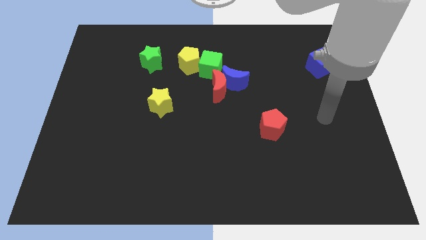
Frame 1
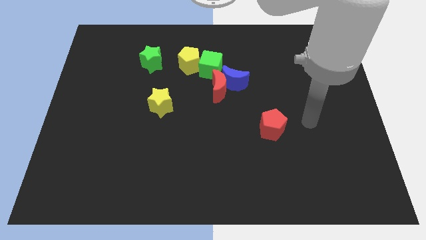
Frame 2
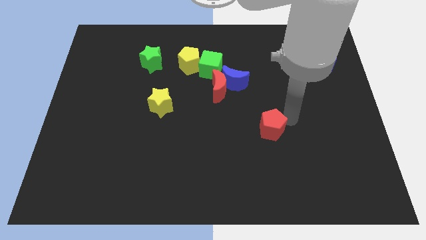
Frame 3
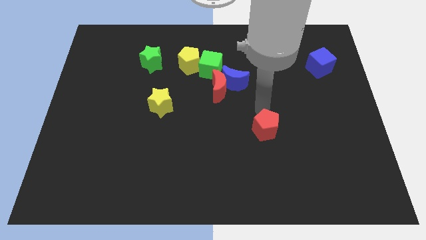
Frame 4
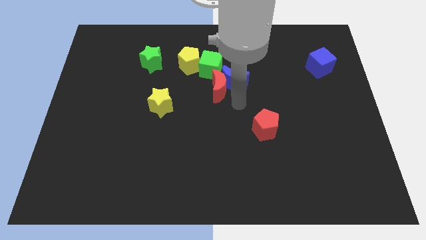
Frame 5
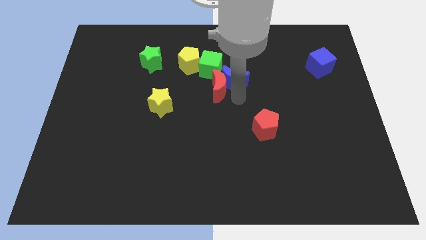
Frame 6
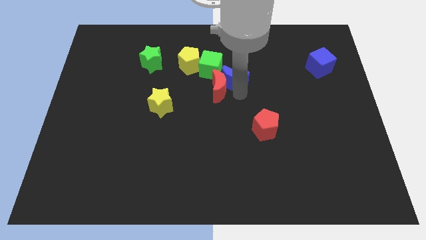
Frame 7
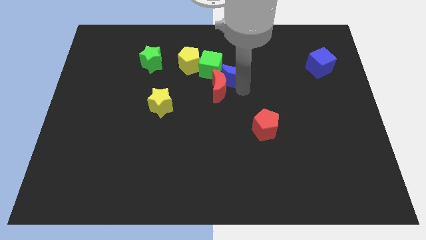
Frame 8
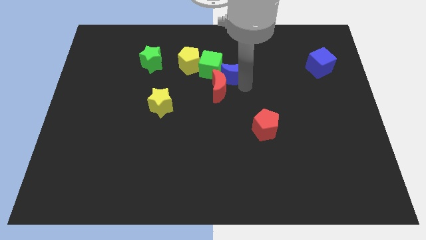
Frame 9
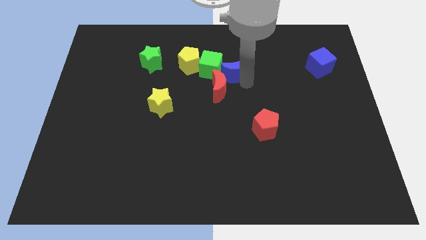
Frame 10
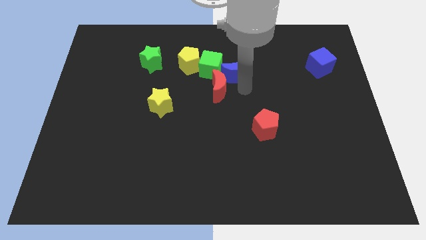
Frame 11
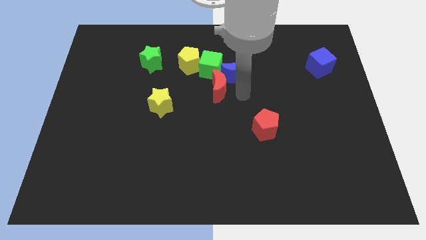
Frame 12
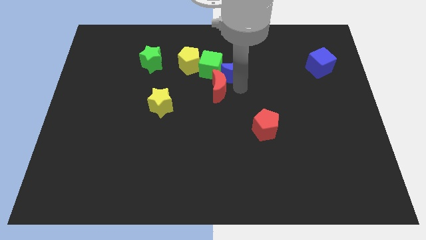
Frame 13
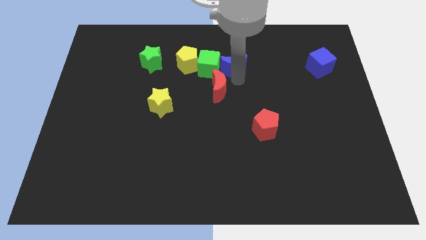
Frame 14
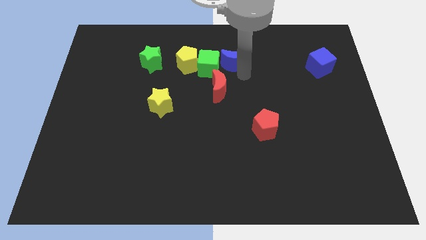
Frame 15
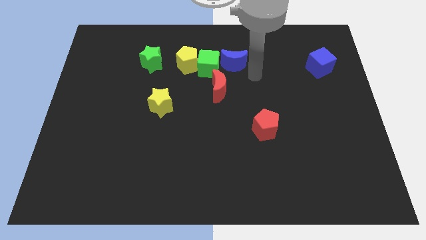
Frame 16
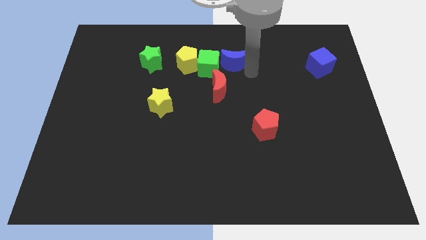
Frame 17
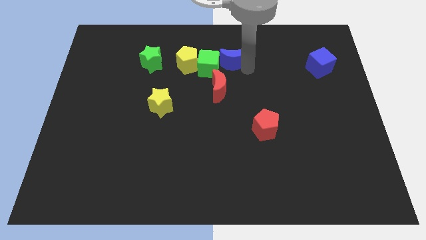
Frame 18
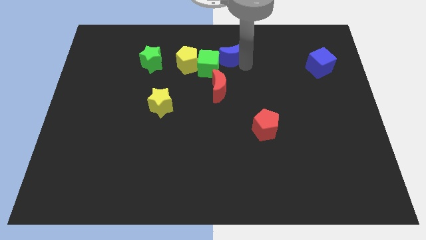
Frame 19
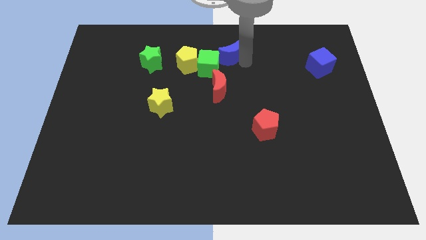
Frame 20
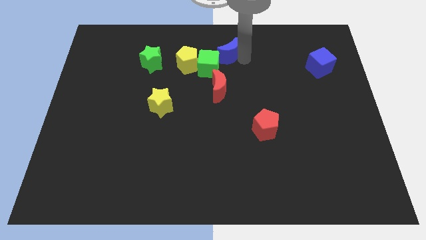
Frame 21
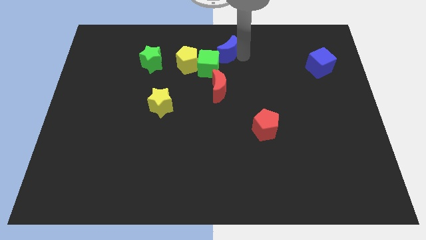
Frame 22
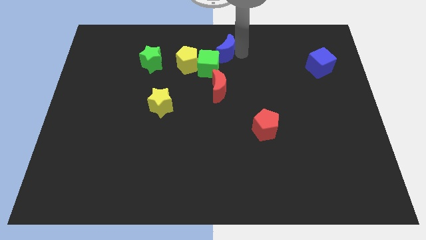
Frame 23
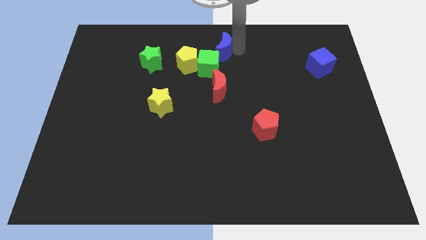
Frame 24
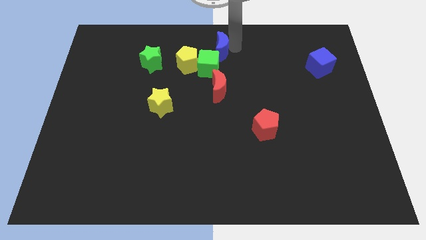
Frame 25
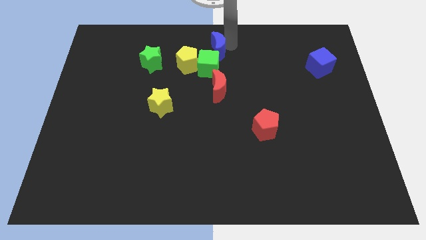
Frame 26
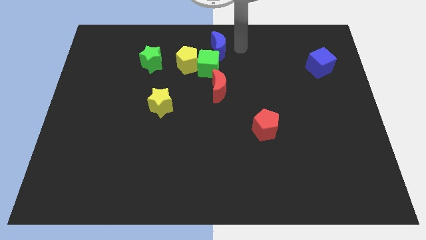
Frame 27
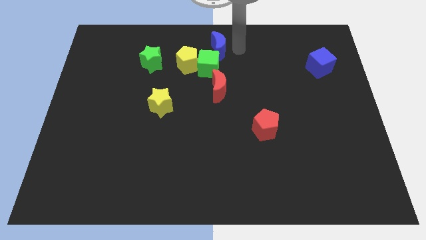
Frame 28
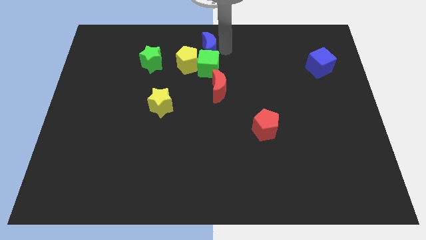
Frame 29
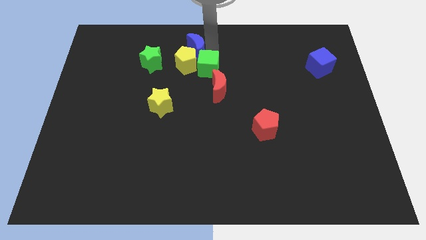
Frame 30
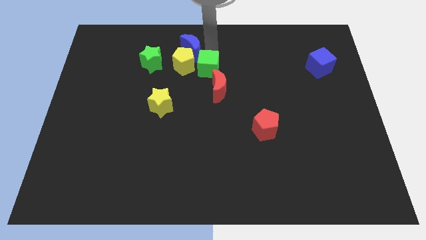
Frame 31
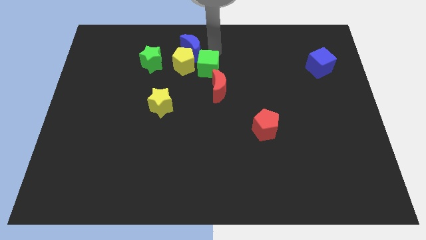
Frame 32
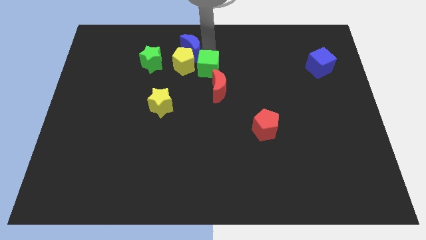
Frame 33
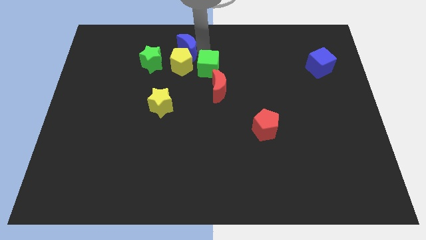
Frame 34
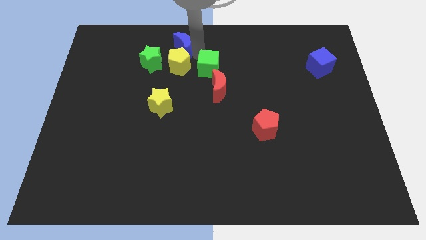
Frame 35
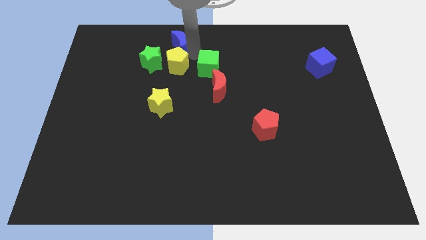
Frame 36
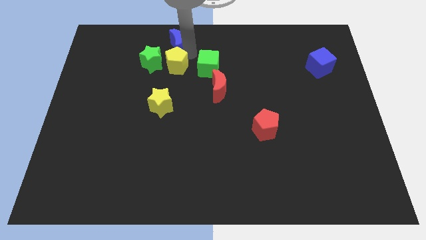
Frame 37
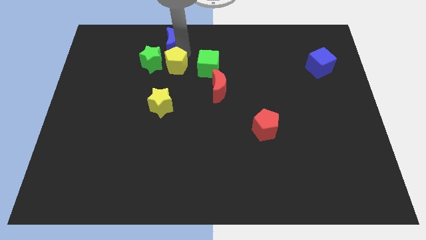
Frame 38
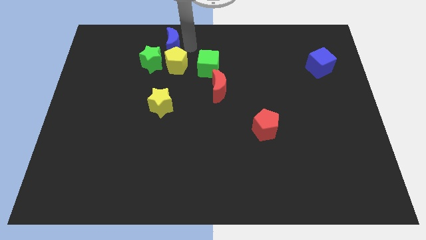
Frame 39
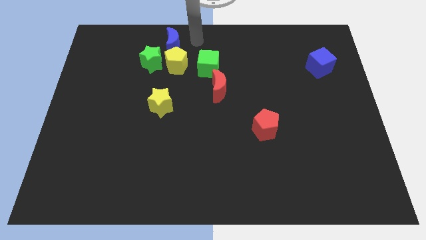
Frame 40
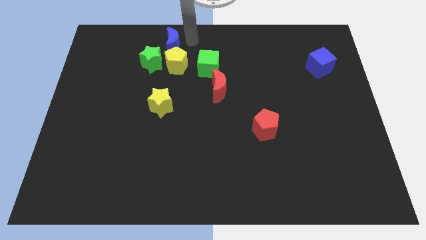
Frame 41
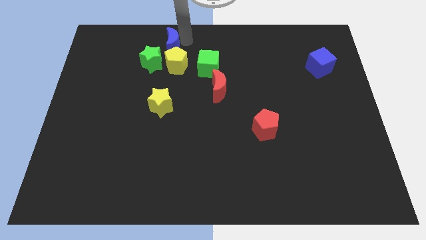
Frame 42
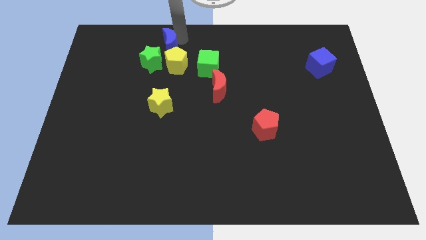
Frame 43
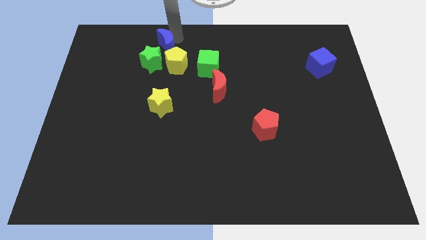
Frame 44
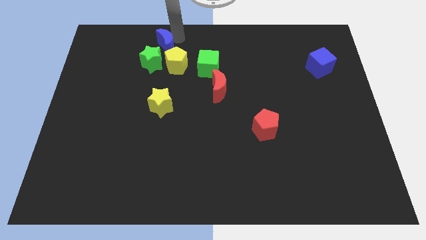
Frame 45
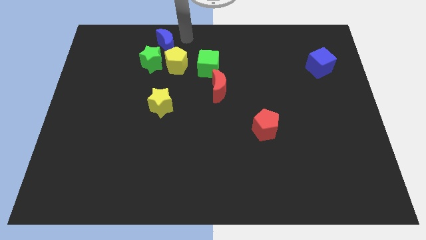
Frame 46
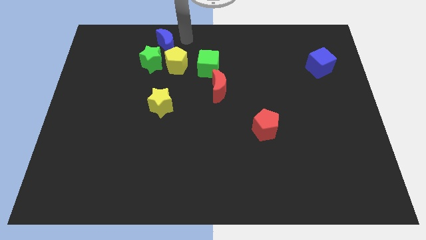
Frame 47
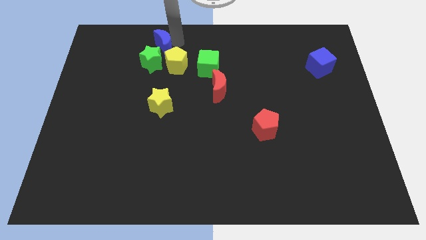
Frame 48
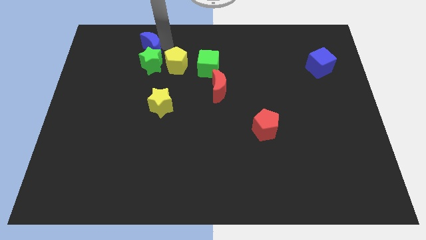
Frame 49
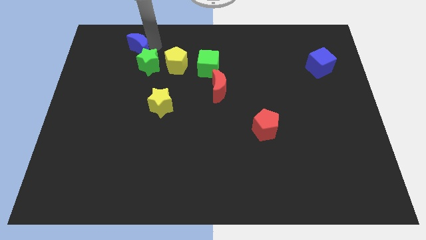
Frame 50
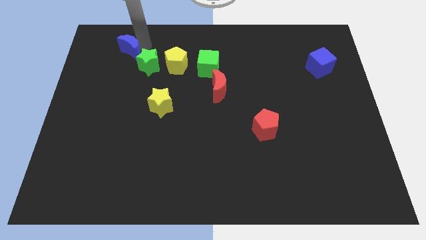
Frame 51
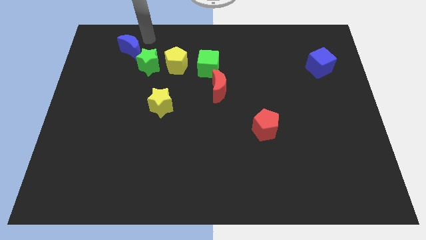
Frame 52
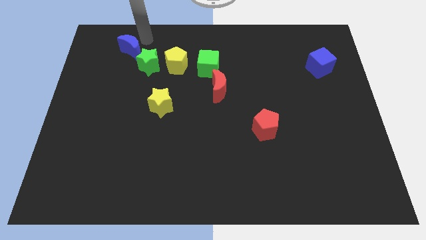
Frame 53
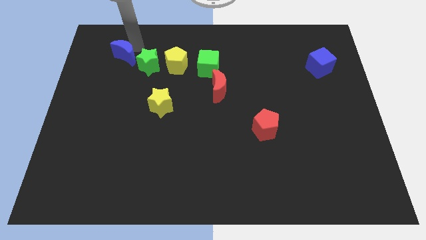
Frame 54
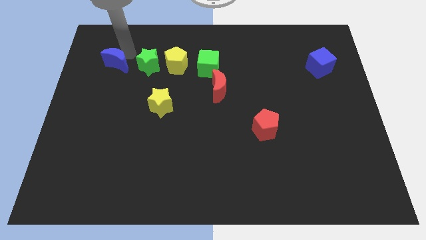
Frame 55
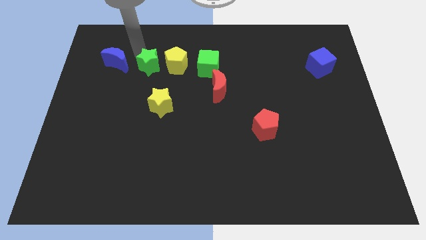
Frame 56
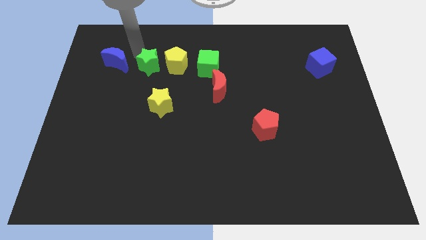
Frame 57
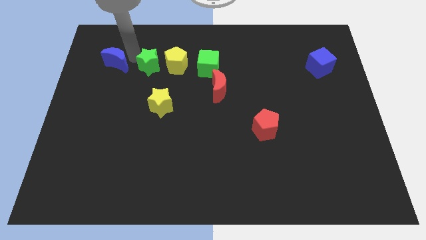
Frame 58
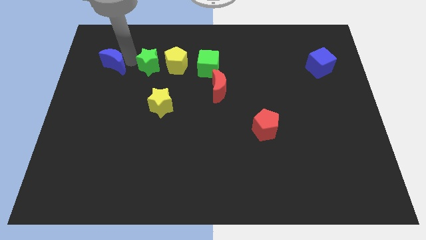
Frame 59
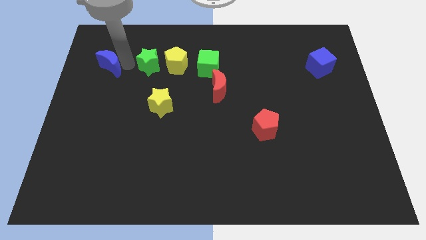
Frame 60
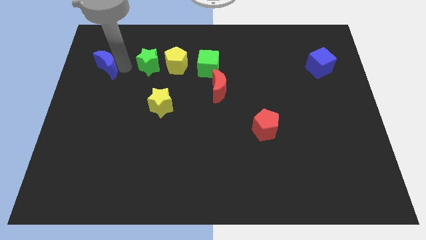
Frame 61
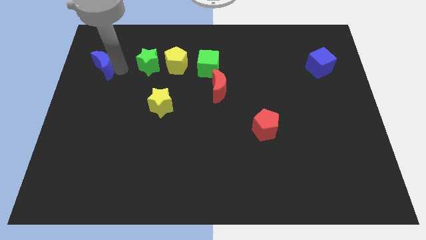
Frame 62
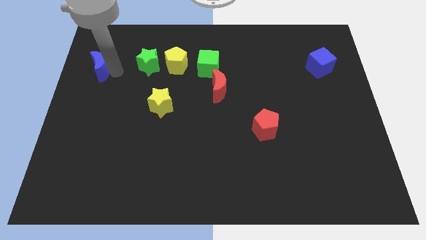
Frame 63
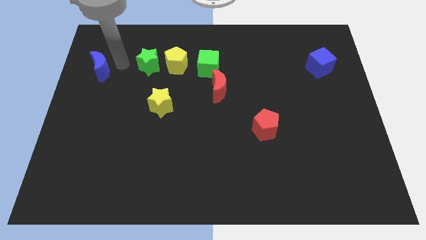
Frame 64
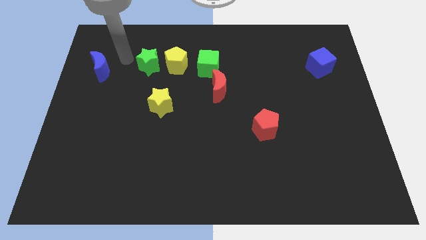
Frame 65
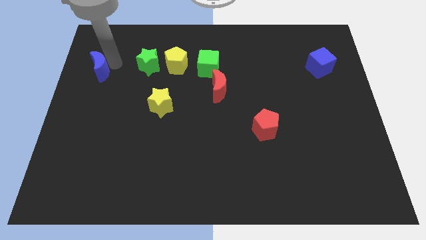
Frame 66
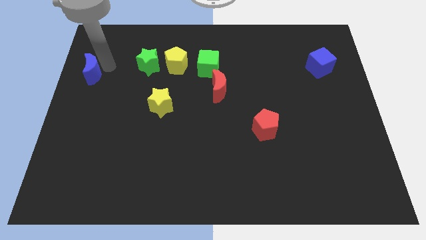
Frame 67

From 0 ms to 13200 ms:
push the blue moon to the center left
